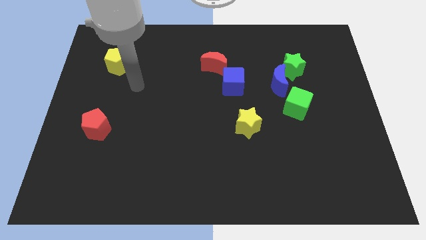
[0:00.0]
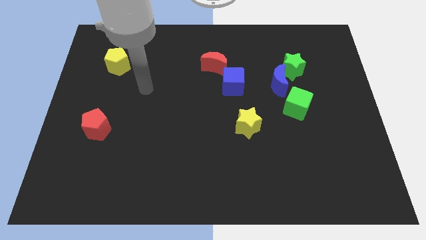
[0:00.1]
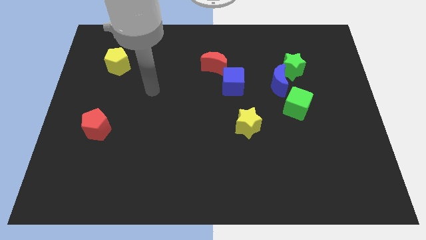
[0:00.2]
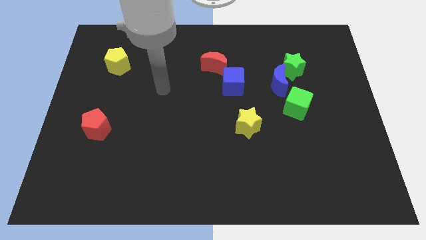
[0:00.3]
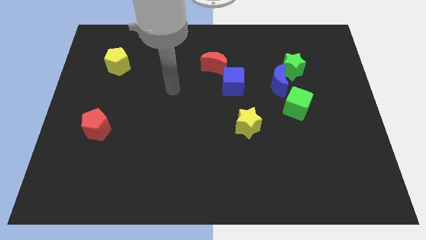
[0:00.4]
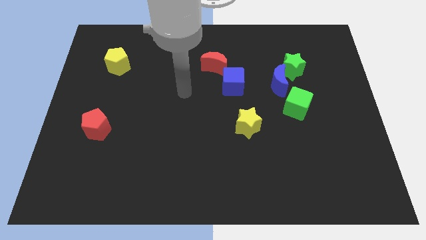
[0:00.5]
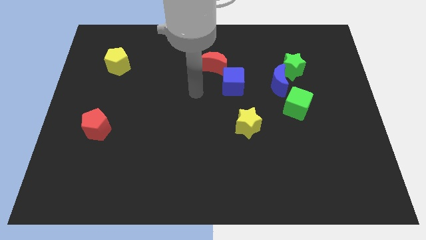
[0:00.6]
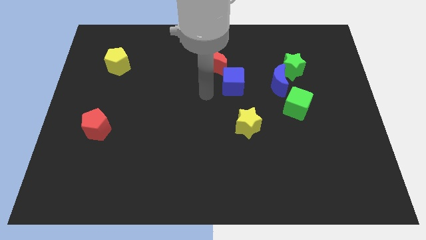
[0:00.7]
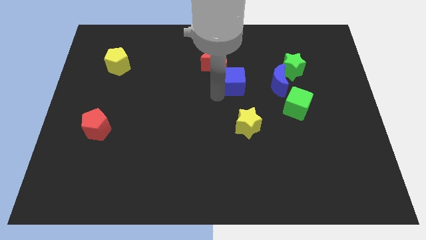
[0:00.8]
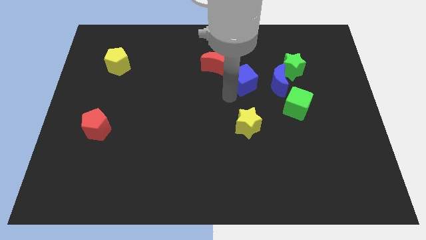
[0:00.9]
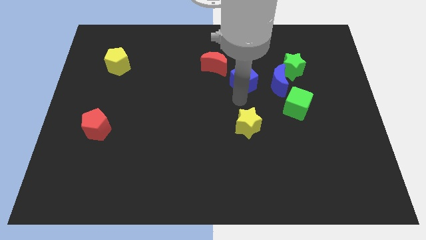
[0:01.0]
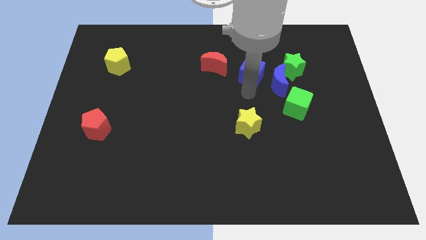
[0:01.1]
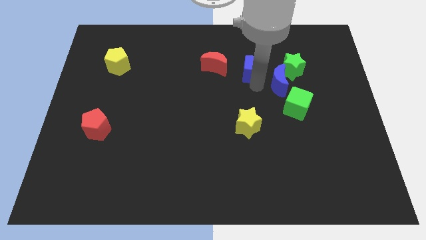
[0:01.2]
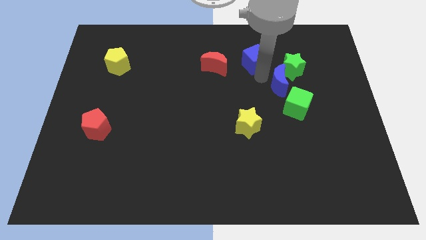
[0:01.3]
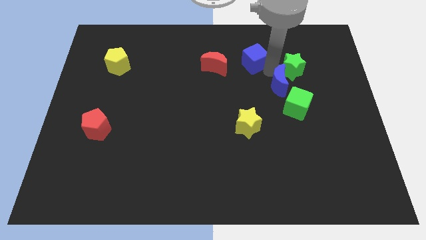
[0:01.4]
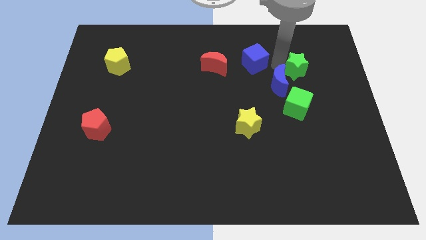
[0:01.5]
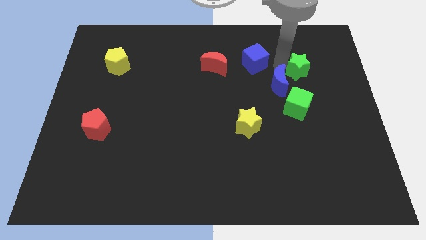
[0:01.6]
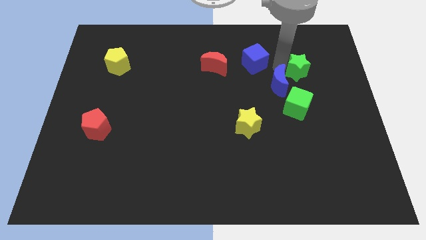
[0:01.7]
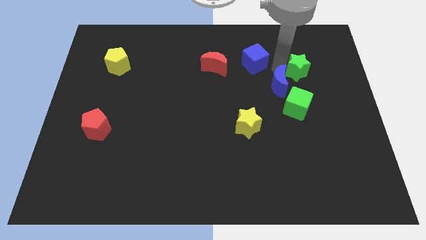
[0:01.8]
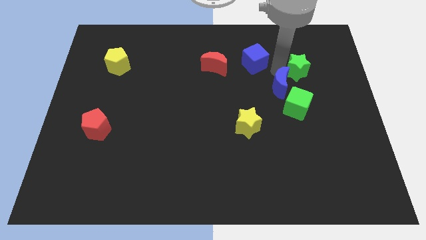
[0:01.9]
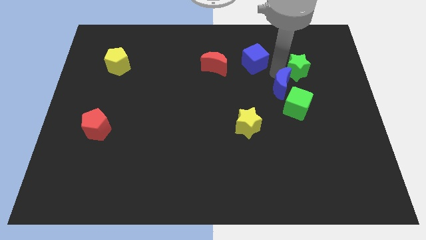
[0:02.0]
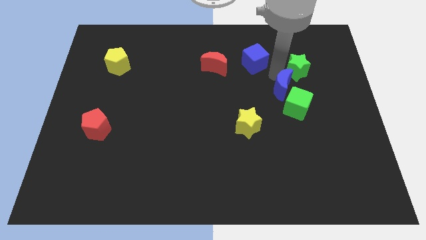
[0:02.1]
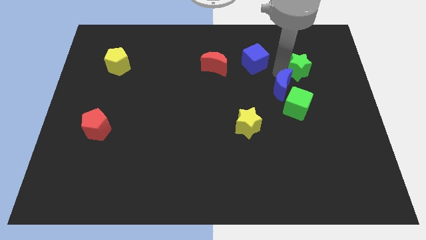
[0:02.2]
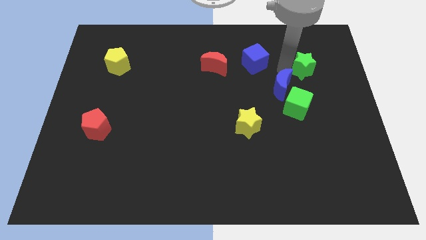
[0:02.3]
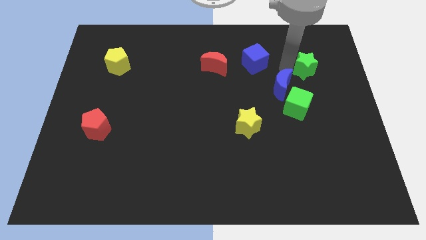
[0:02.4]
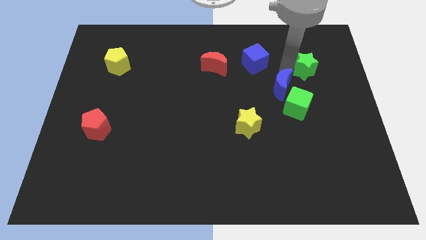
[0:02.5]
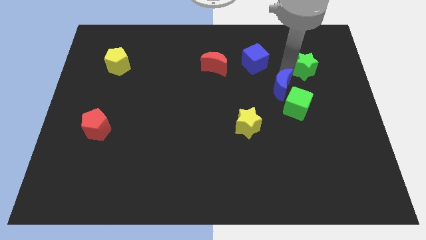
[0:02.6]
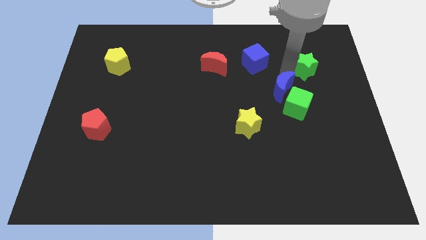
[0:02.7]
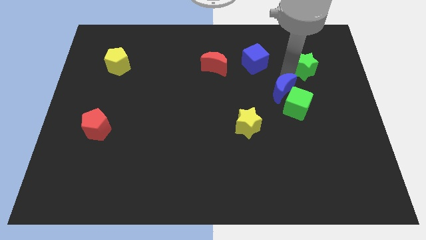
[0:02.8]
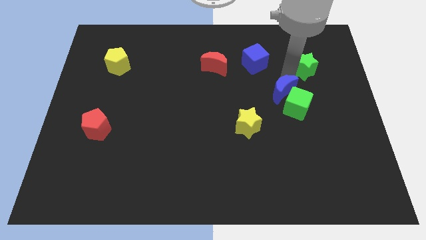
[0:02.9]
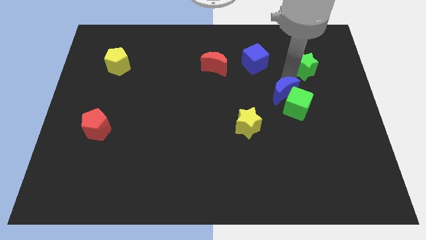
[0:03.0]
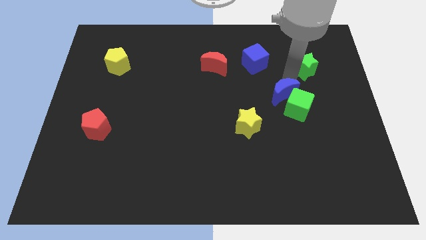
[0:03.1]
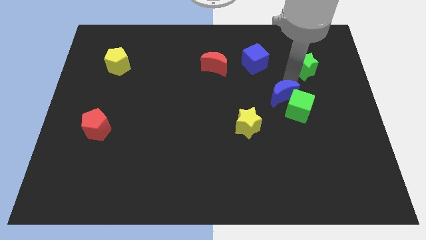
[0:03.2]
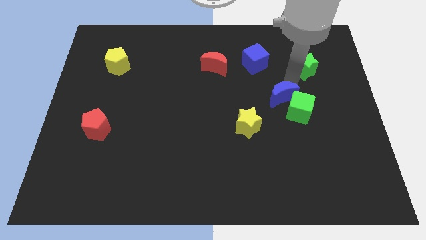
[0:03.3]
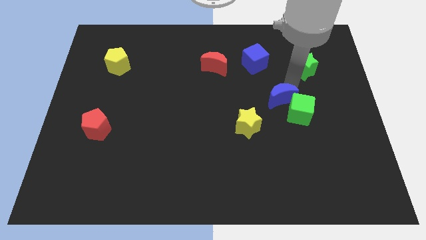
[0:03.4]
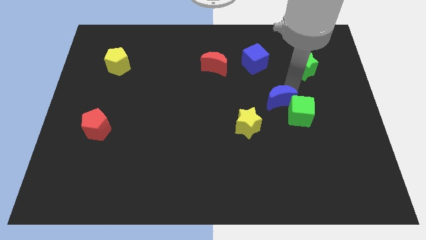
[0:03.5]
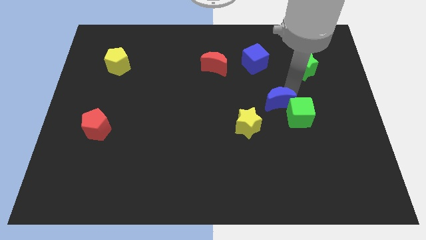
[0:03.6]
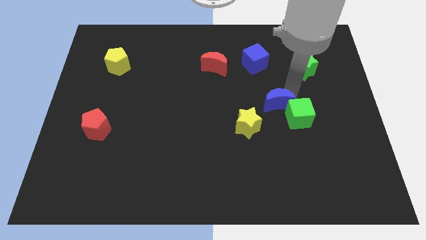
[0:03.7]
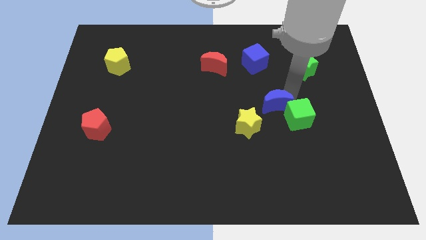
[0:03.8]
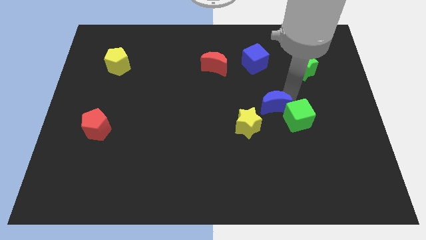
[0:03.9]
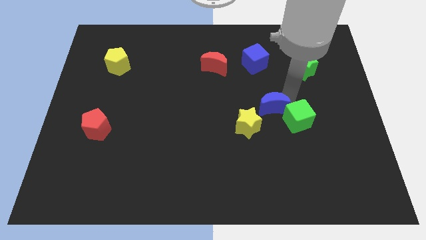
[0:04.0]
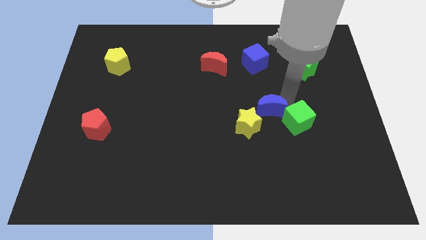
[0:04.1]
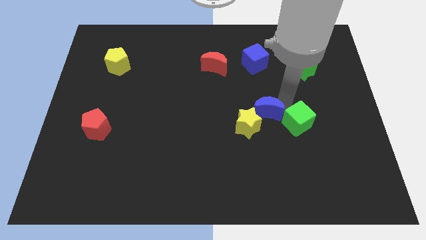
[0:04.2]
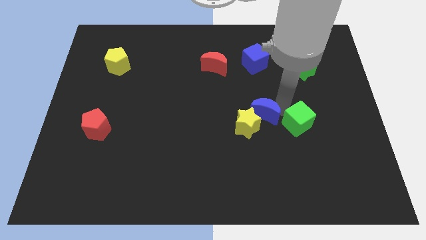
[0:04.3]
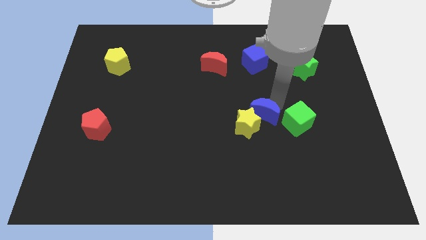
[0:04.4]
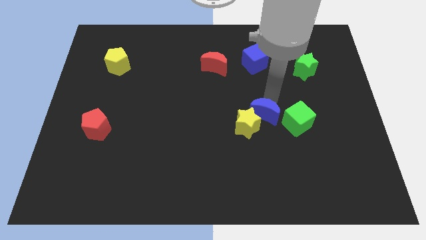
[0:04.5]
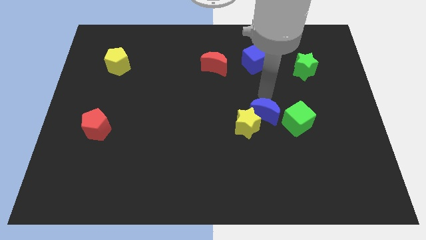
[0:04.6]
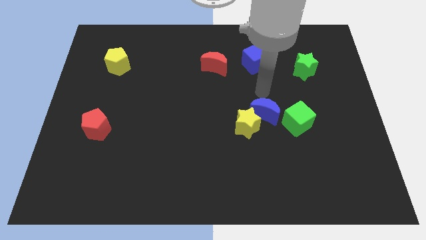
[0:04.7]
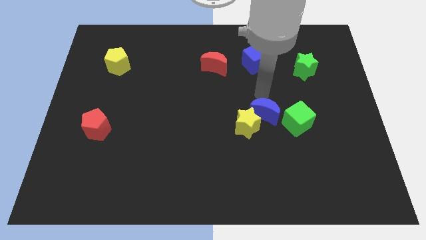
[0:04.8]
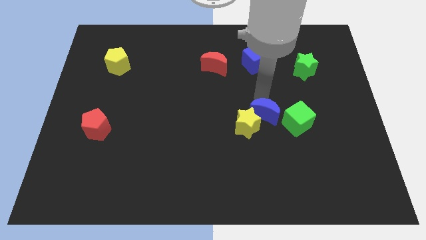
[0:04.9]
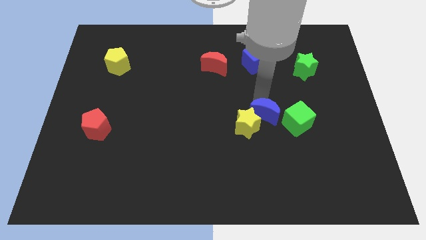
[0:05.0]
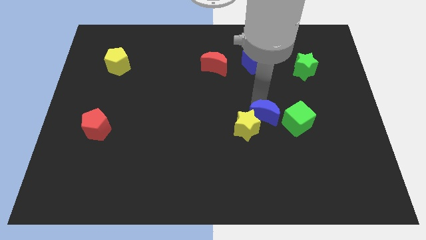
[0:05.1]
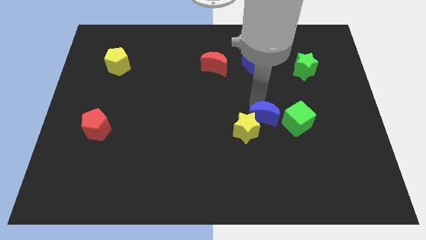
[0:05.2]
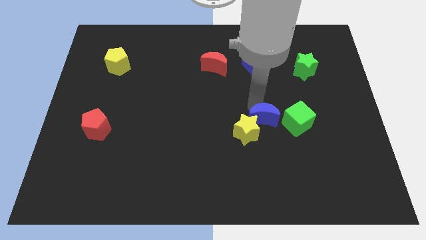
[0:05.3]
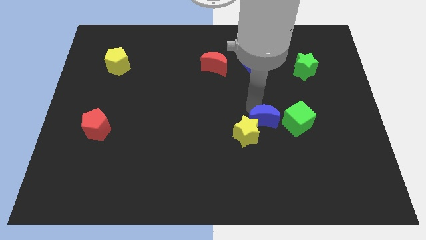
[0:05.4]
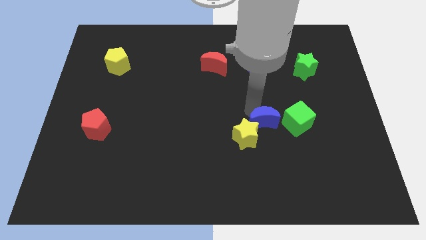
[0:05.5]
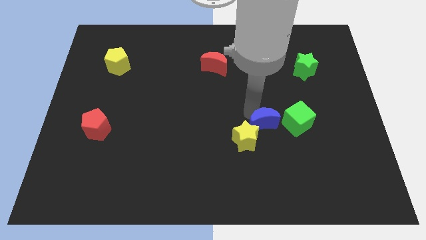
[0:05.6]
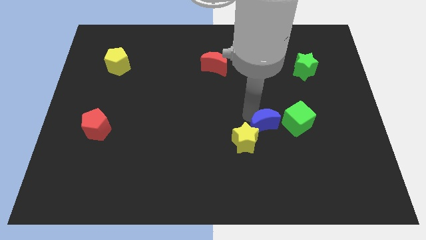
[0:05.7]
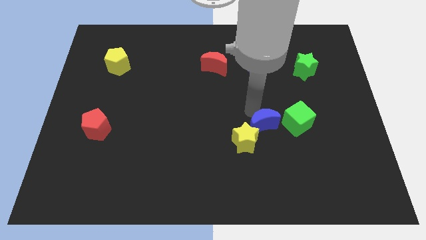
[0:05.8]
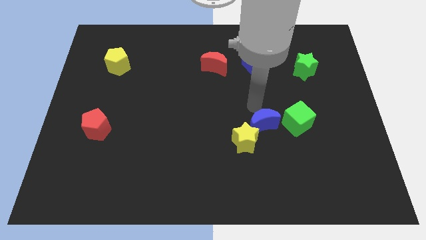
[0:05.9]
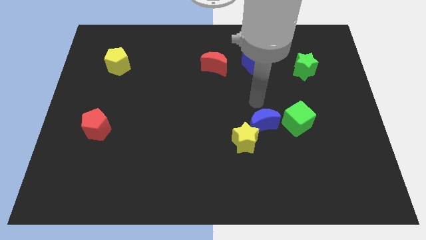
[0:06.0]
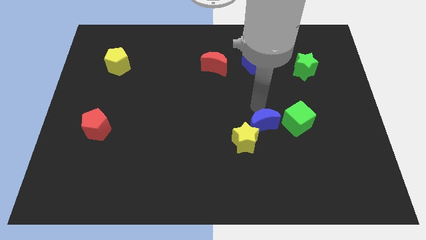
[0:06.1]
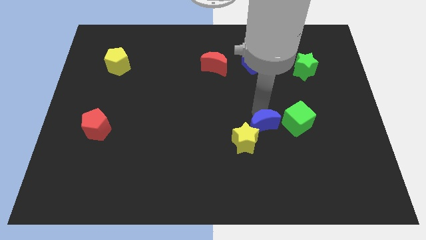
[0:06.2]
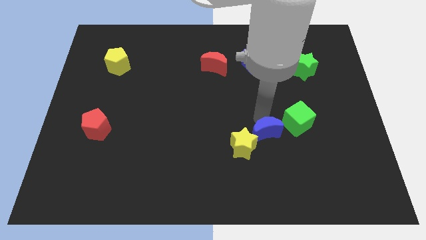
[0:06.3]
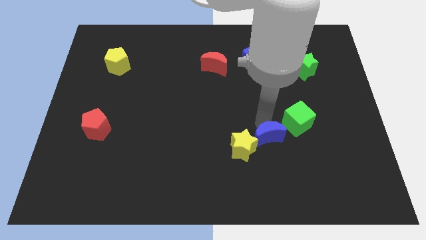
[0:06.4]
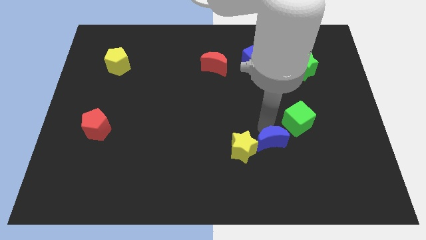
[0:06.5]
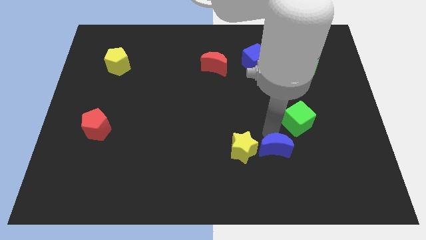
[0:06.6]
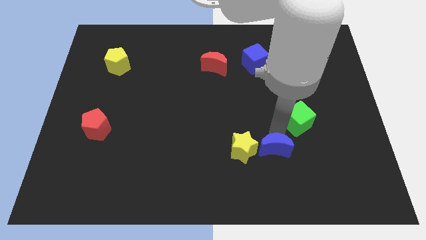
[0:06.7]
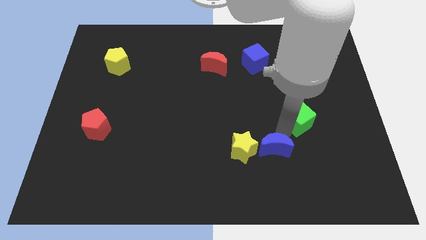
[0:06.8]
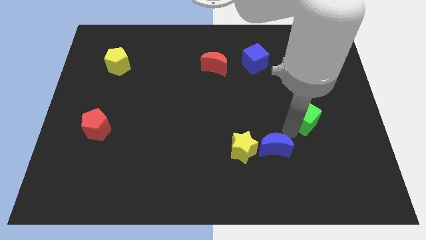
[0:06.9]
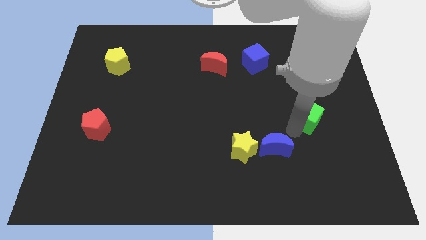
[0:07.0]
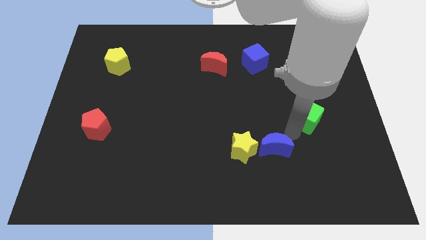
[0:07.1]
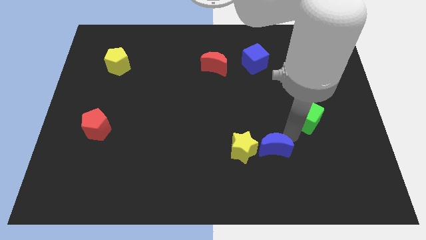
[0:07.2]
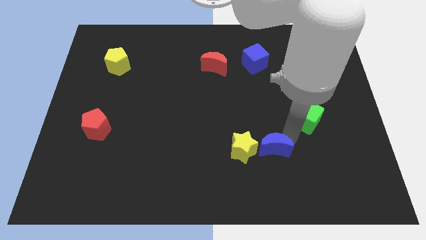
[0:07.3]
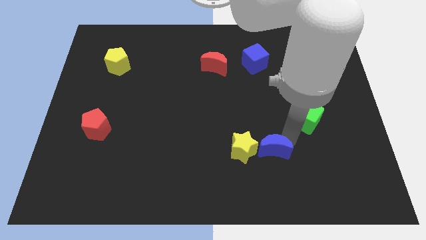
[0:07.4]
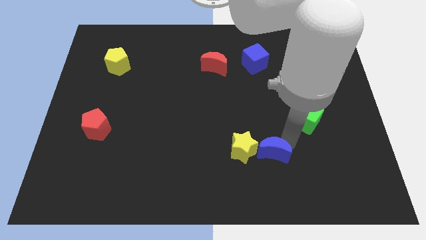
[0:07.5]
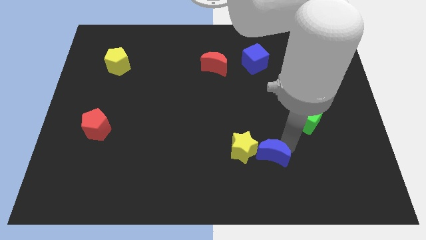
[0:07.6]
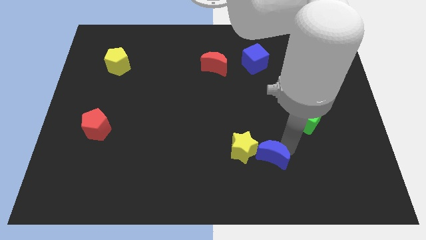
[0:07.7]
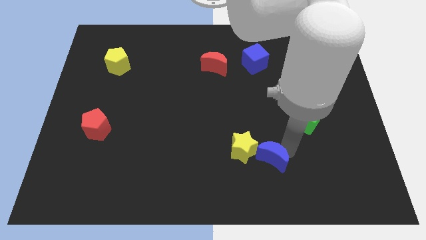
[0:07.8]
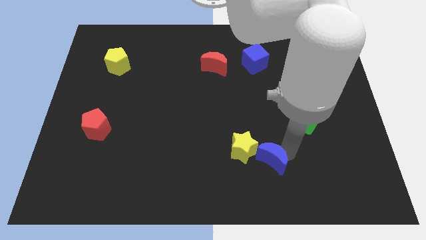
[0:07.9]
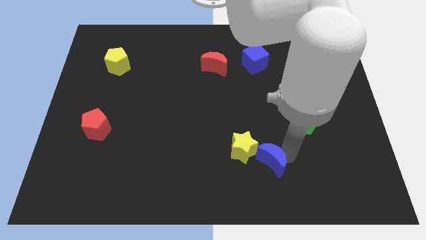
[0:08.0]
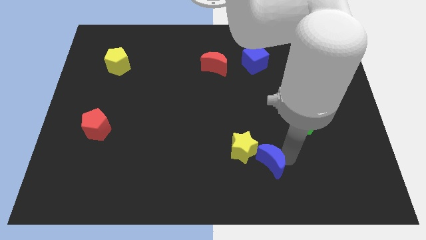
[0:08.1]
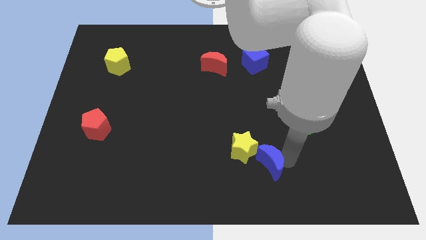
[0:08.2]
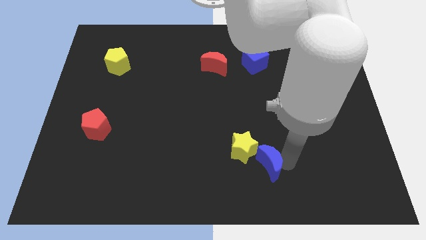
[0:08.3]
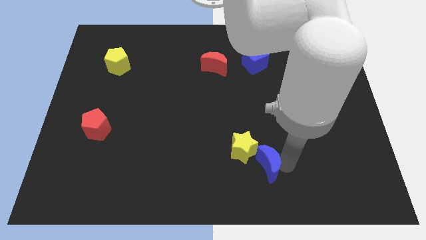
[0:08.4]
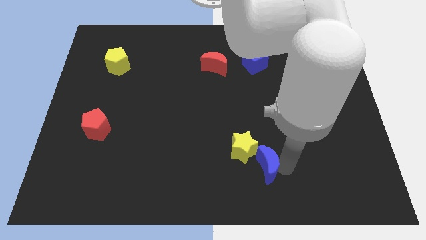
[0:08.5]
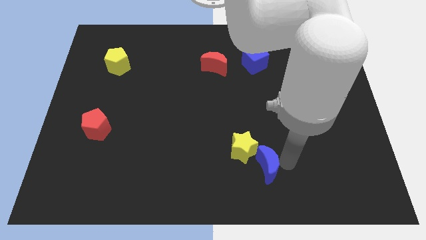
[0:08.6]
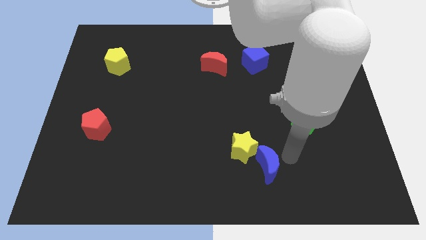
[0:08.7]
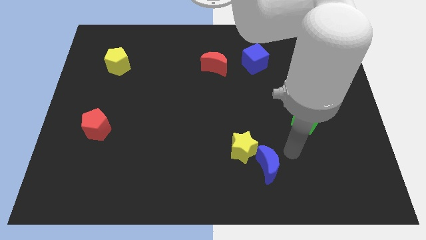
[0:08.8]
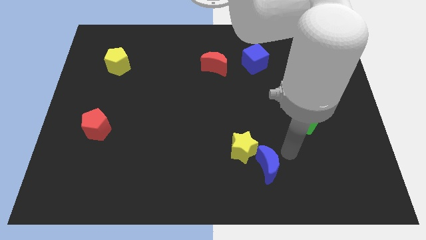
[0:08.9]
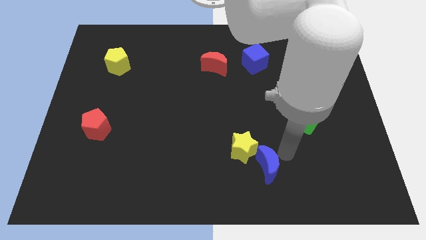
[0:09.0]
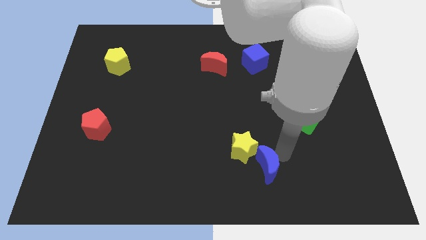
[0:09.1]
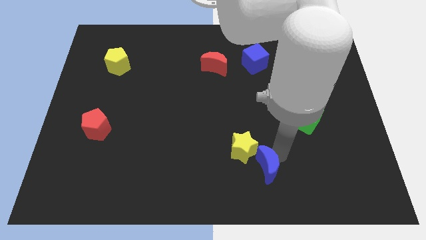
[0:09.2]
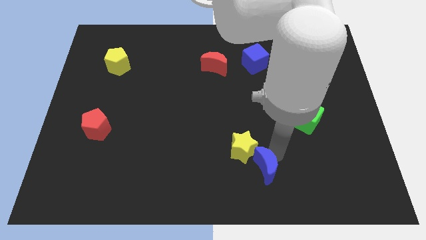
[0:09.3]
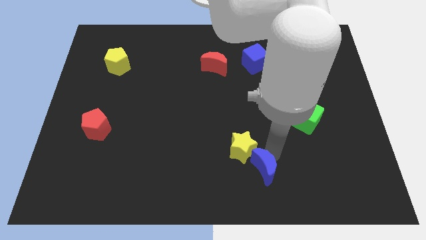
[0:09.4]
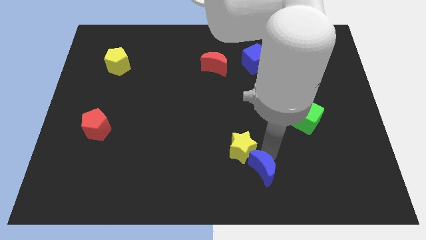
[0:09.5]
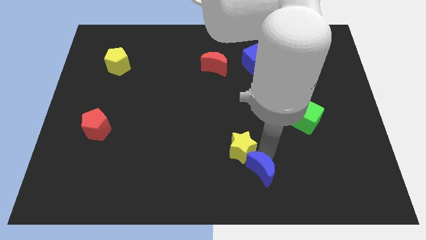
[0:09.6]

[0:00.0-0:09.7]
slide the blue moon to the bottom side
